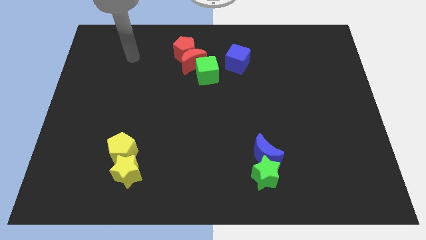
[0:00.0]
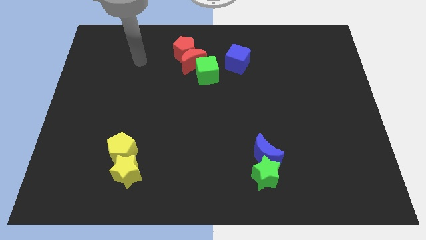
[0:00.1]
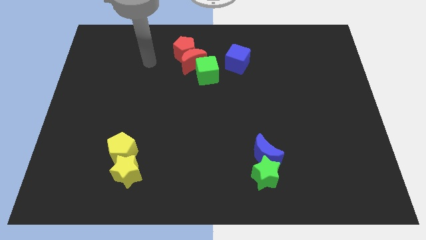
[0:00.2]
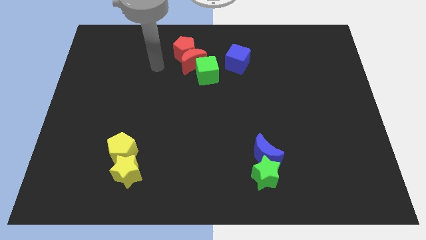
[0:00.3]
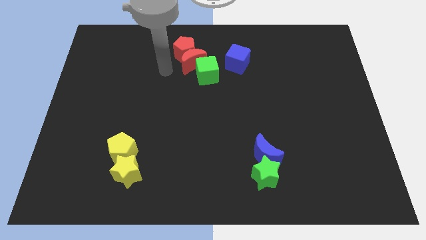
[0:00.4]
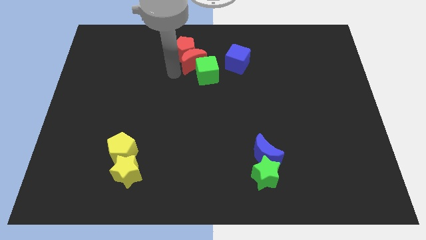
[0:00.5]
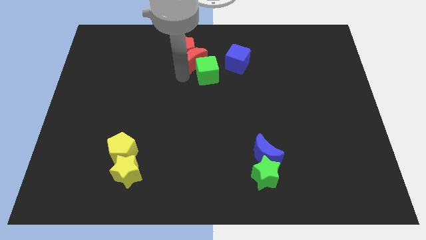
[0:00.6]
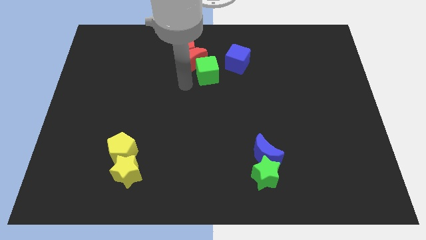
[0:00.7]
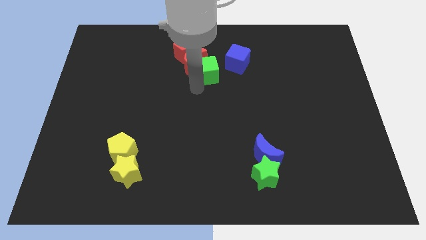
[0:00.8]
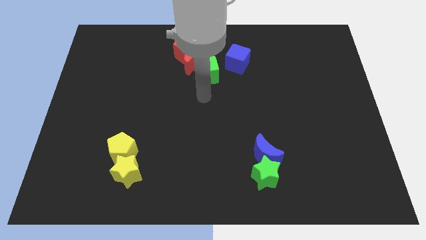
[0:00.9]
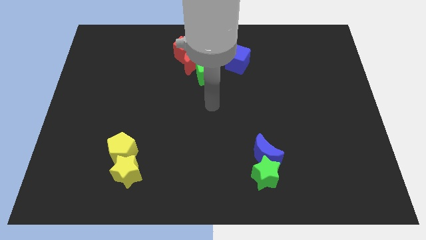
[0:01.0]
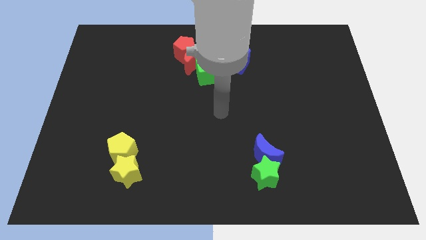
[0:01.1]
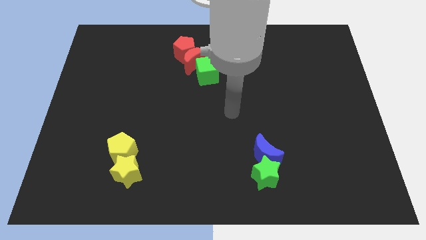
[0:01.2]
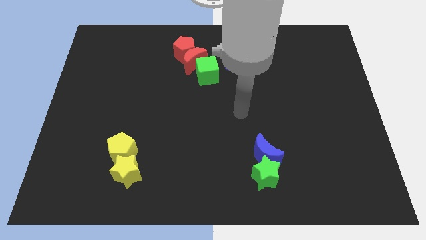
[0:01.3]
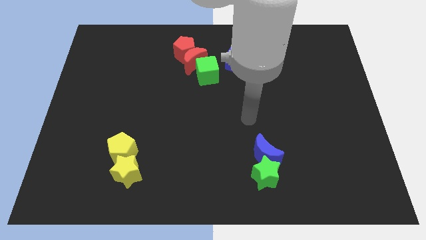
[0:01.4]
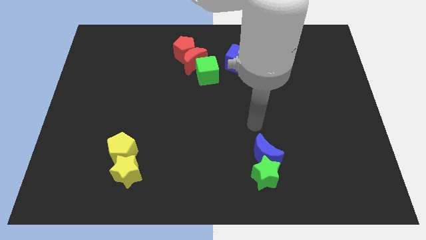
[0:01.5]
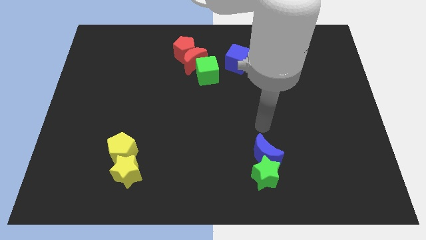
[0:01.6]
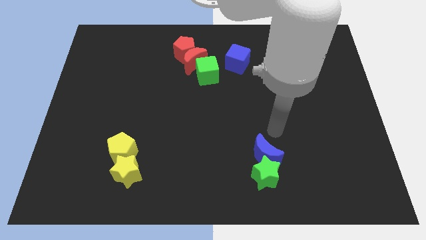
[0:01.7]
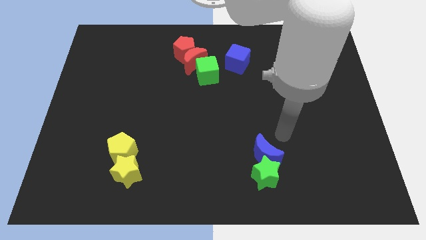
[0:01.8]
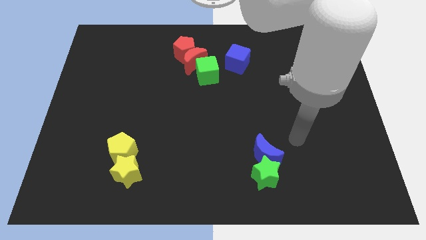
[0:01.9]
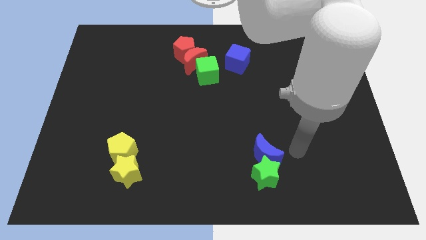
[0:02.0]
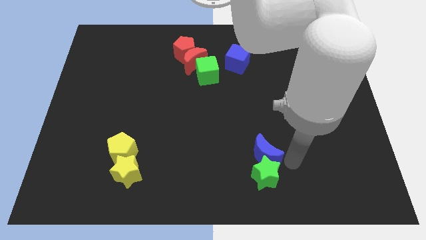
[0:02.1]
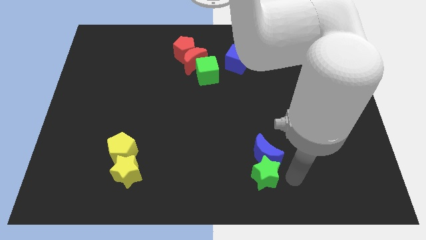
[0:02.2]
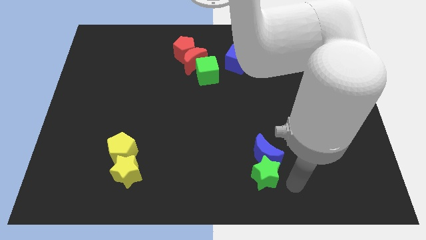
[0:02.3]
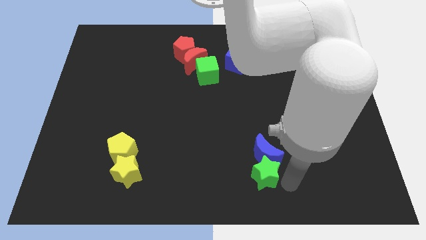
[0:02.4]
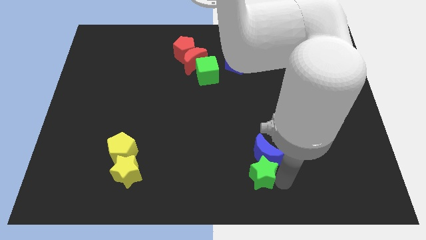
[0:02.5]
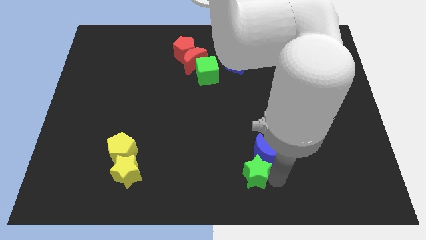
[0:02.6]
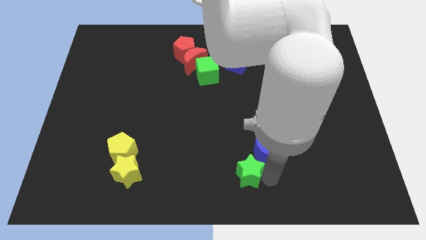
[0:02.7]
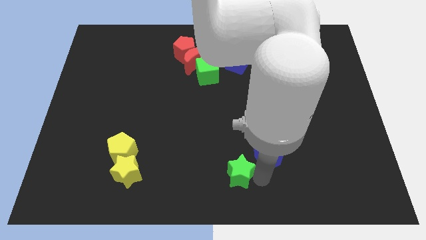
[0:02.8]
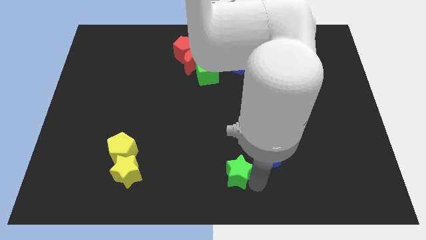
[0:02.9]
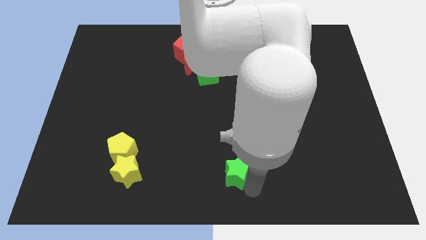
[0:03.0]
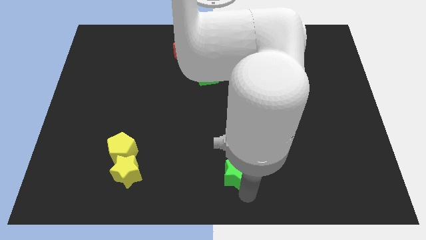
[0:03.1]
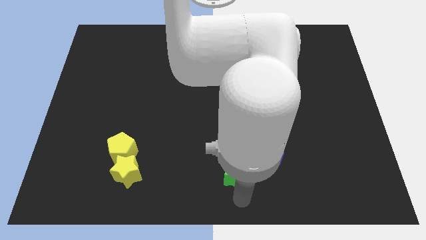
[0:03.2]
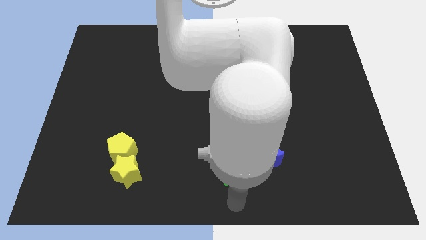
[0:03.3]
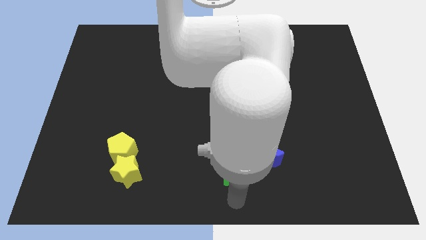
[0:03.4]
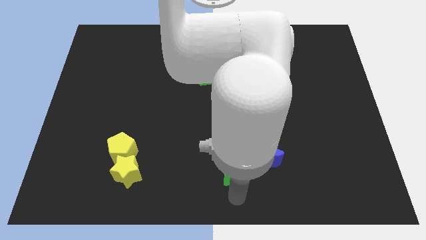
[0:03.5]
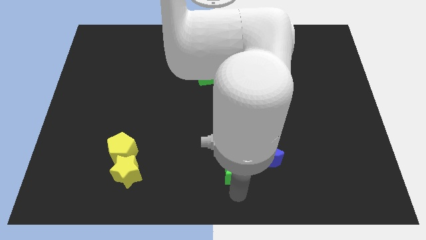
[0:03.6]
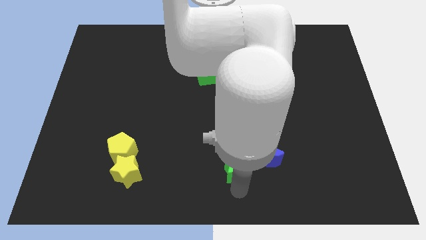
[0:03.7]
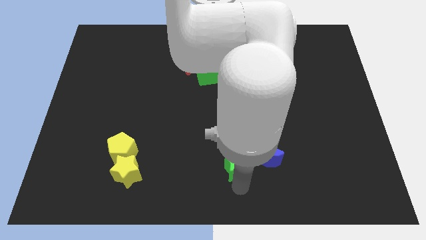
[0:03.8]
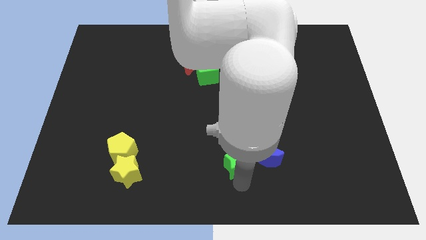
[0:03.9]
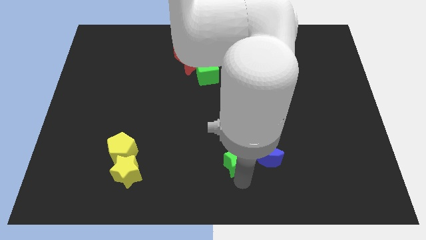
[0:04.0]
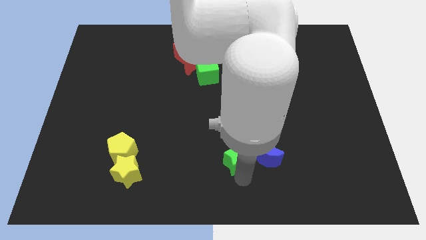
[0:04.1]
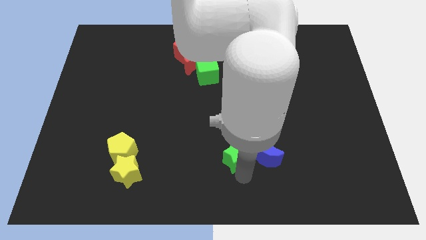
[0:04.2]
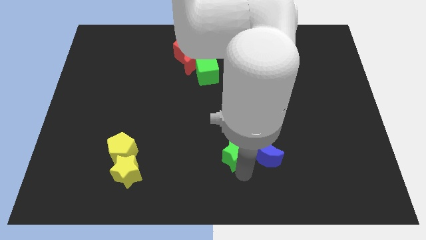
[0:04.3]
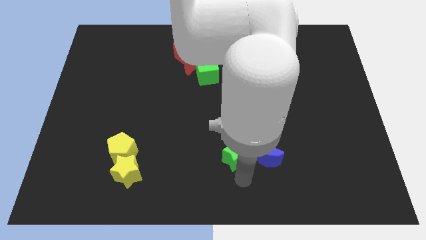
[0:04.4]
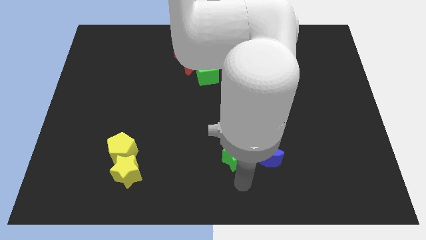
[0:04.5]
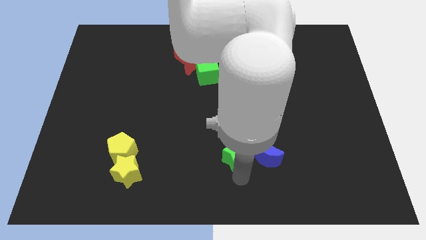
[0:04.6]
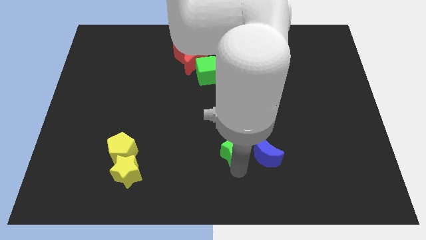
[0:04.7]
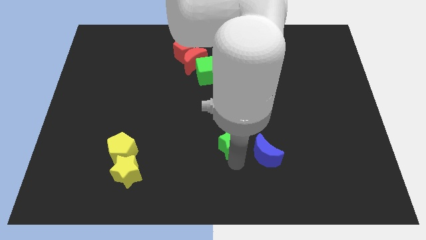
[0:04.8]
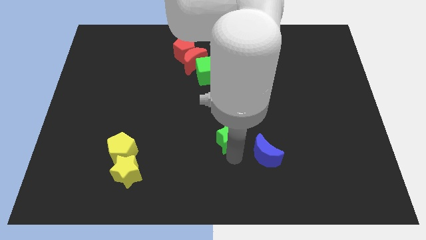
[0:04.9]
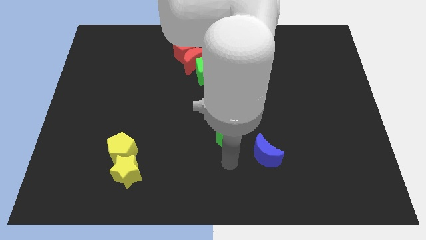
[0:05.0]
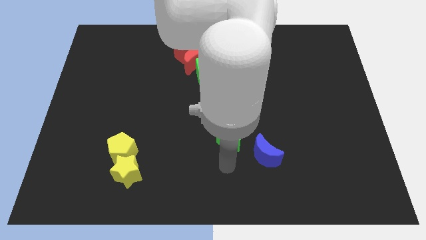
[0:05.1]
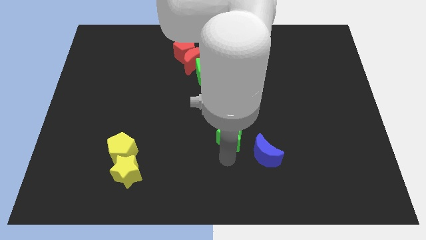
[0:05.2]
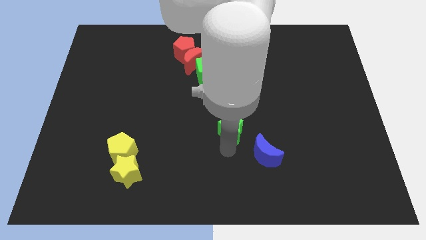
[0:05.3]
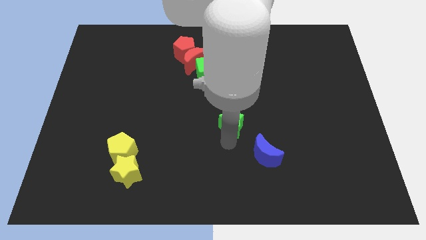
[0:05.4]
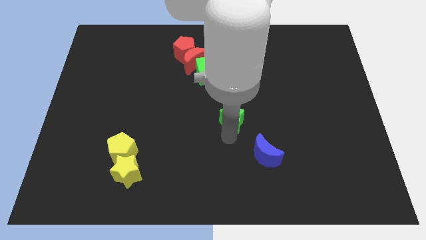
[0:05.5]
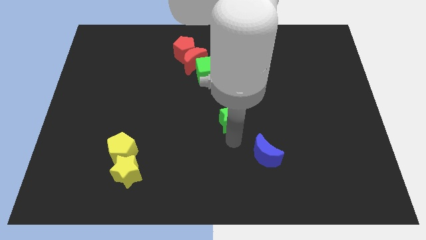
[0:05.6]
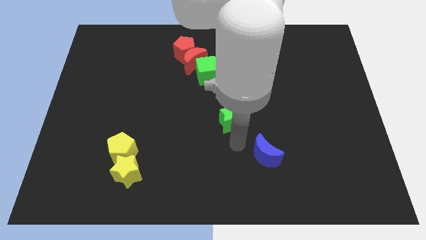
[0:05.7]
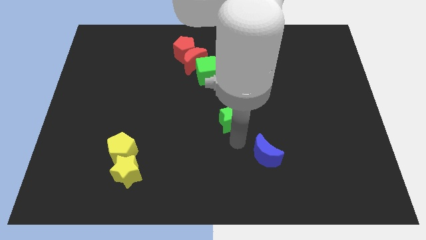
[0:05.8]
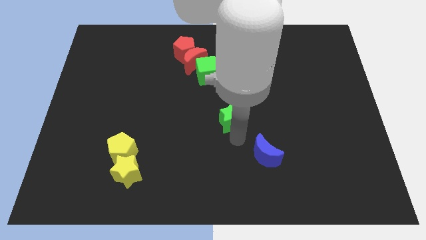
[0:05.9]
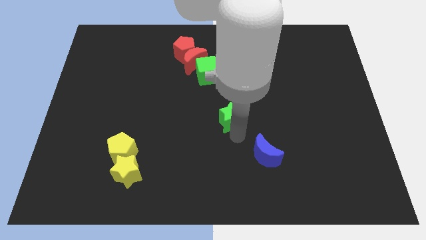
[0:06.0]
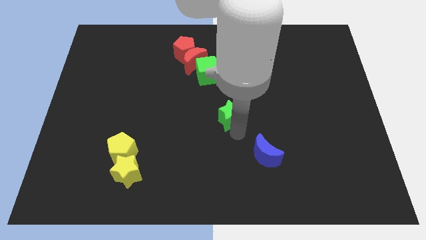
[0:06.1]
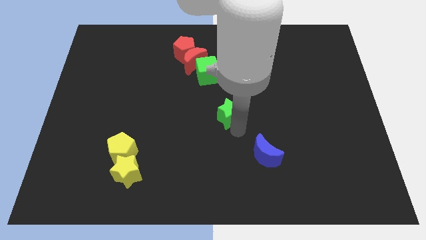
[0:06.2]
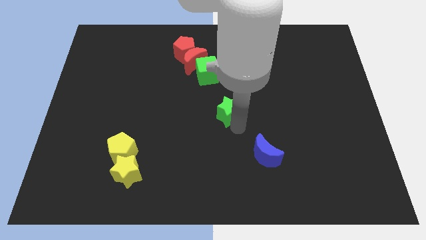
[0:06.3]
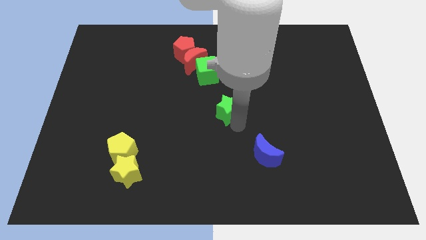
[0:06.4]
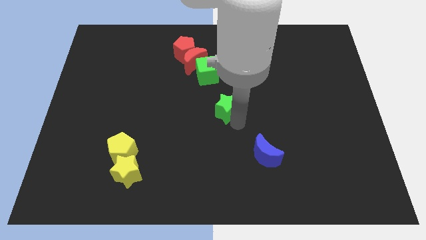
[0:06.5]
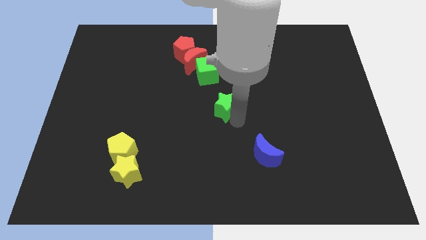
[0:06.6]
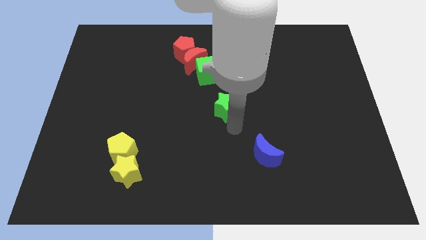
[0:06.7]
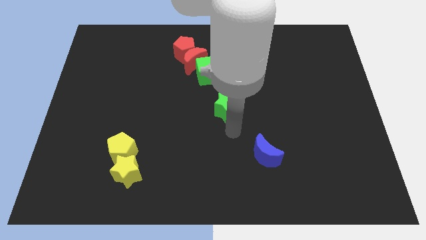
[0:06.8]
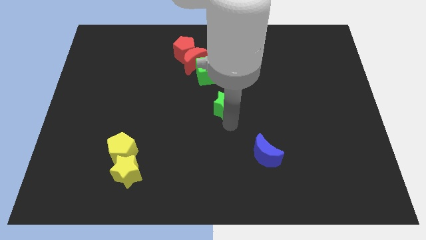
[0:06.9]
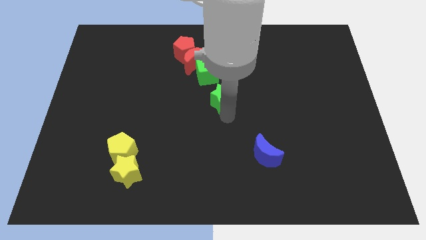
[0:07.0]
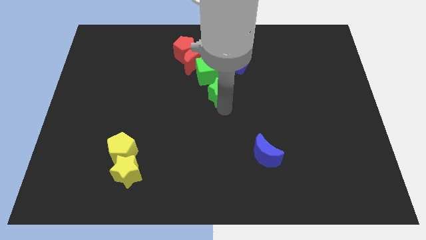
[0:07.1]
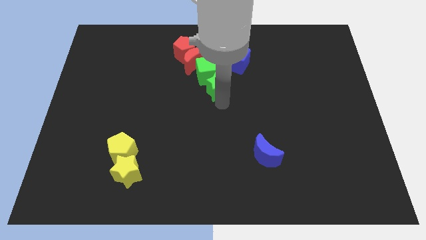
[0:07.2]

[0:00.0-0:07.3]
put the green star to the bottom right of the red moon

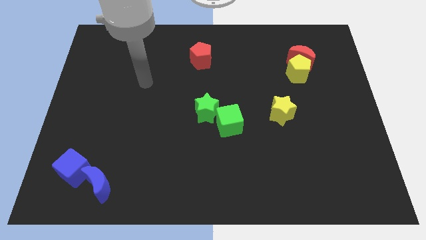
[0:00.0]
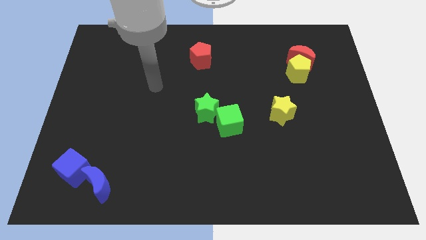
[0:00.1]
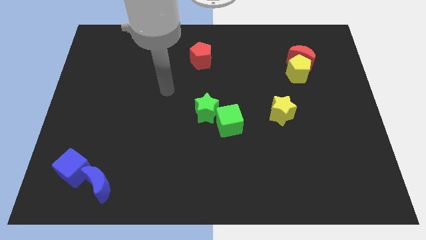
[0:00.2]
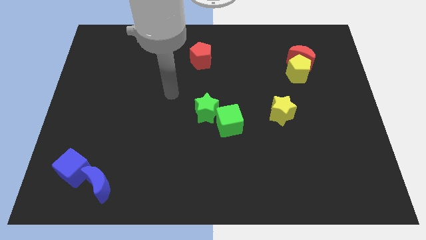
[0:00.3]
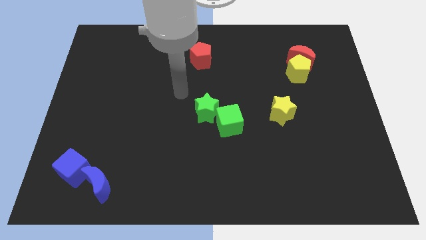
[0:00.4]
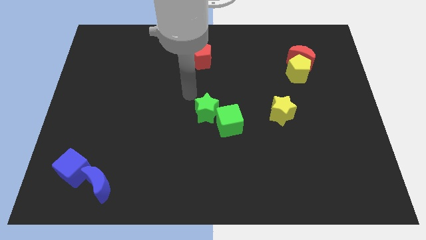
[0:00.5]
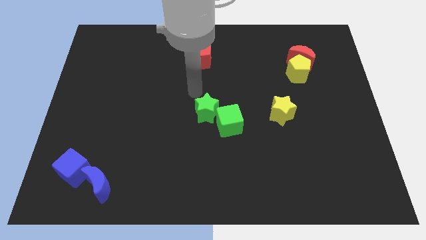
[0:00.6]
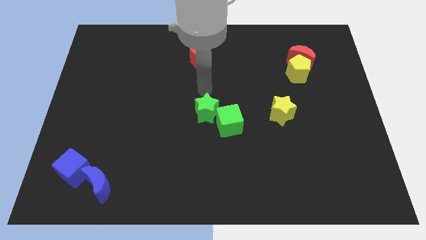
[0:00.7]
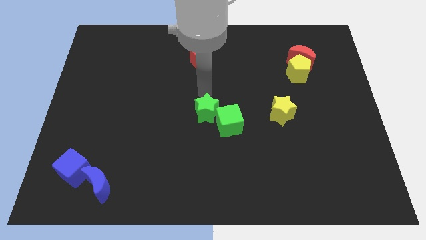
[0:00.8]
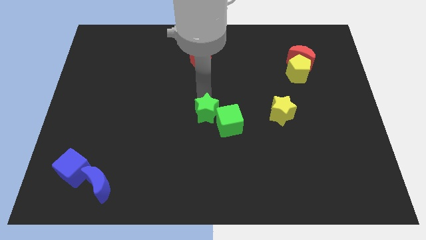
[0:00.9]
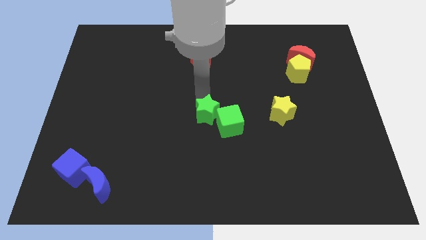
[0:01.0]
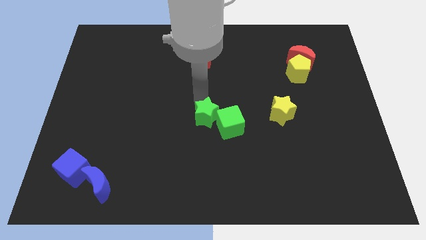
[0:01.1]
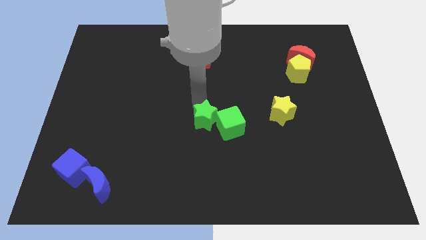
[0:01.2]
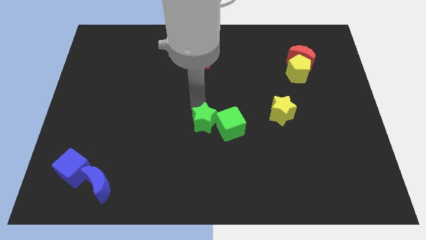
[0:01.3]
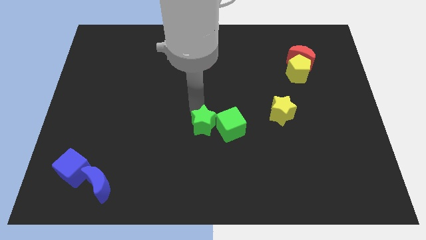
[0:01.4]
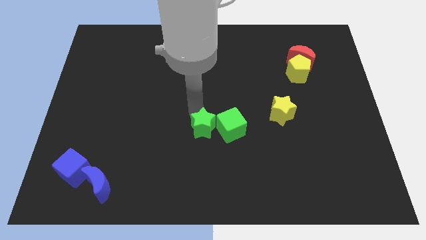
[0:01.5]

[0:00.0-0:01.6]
move the green star to the bottom left side of the green cube
